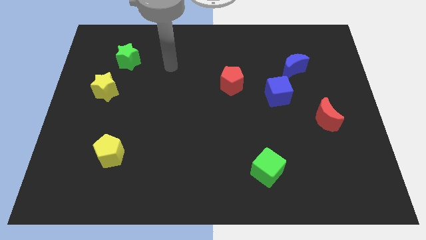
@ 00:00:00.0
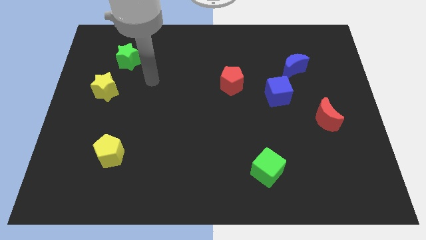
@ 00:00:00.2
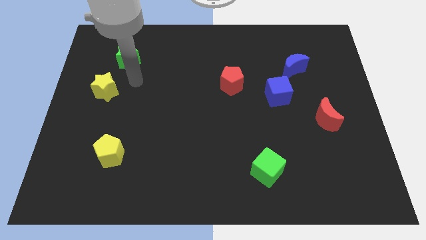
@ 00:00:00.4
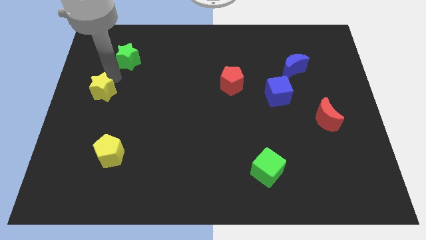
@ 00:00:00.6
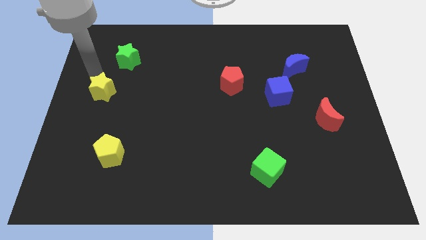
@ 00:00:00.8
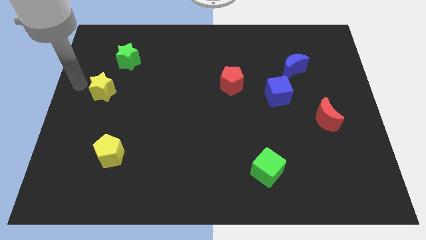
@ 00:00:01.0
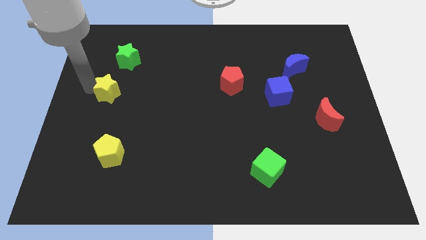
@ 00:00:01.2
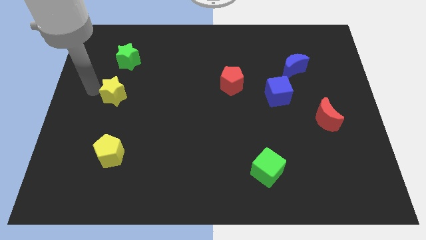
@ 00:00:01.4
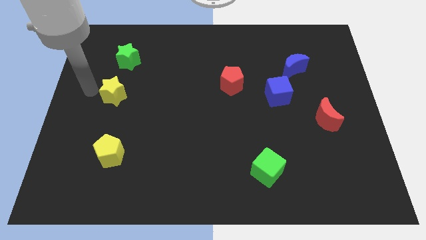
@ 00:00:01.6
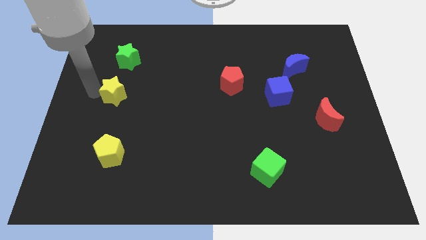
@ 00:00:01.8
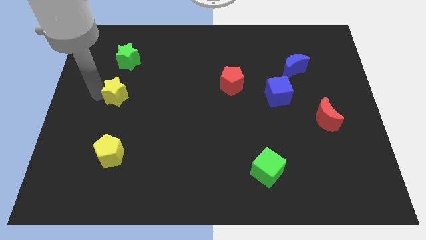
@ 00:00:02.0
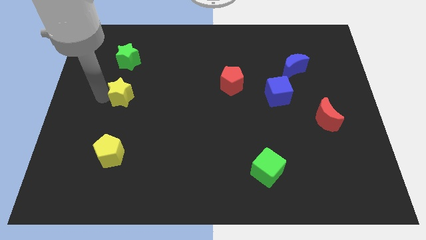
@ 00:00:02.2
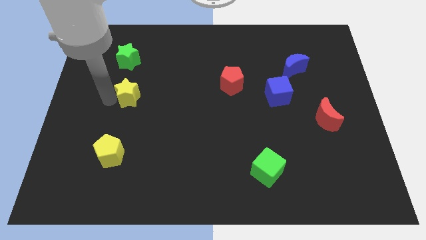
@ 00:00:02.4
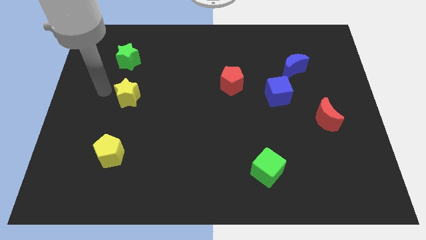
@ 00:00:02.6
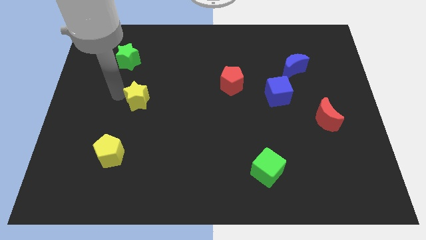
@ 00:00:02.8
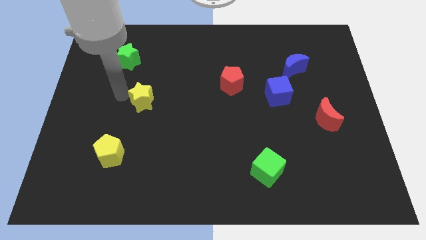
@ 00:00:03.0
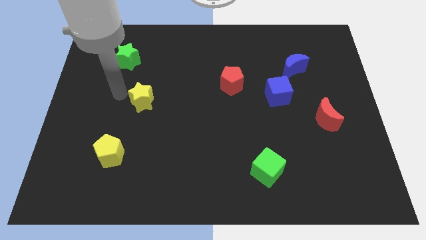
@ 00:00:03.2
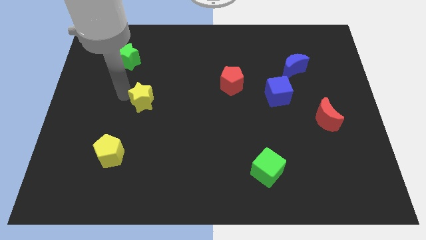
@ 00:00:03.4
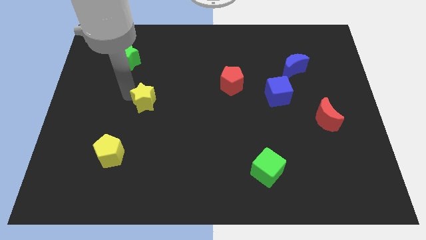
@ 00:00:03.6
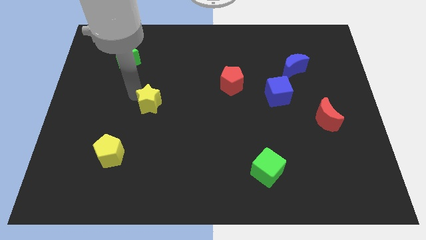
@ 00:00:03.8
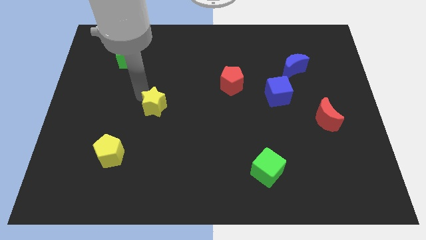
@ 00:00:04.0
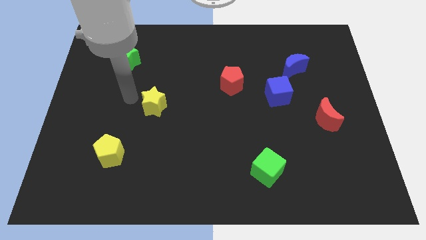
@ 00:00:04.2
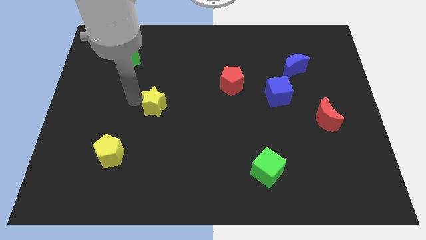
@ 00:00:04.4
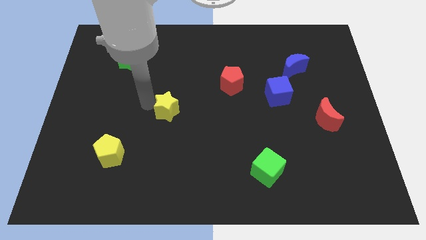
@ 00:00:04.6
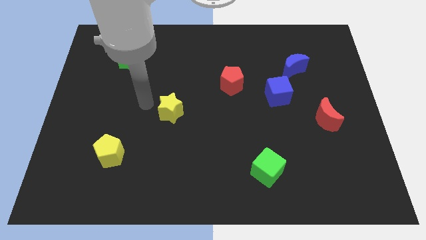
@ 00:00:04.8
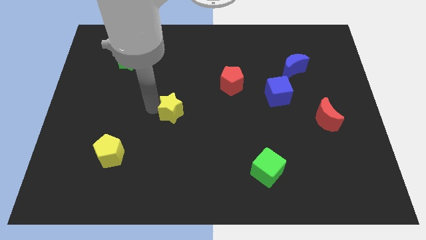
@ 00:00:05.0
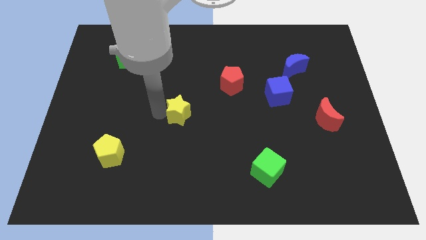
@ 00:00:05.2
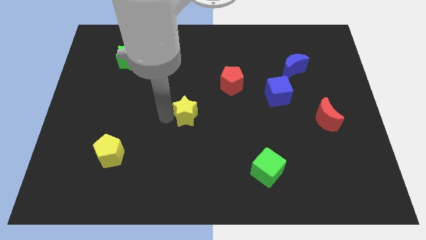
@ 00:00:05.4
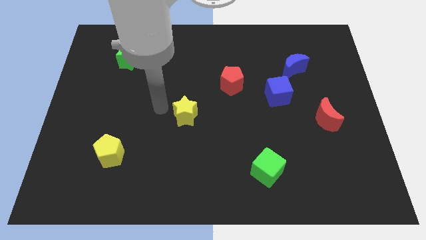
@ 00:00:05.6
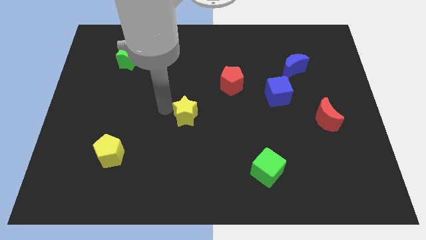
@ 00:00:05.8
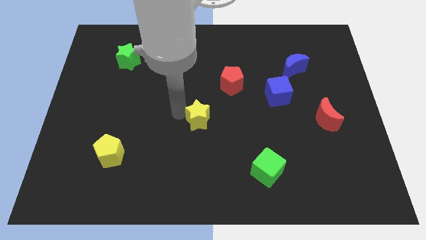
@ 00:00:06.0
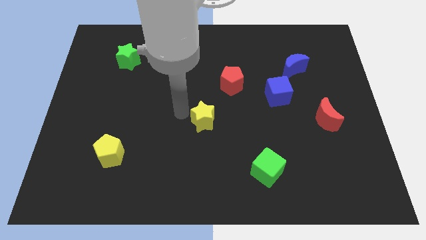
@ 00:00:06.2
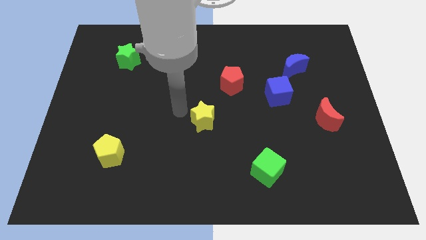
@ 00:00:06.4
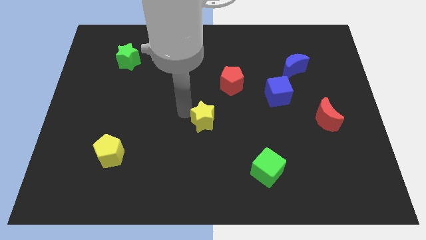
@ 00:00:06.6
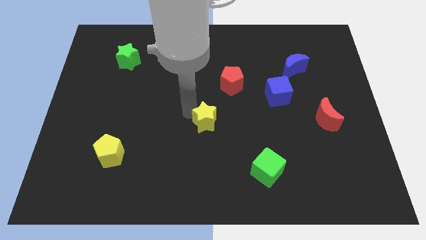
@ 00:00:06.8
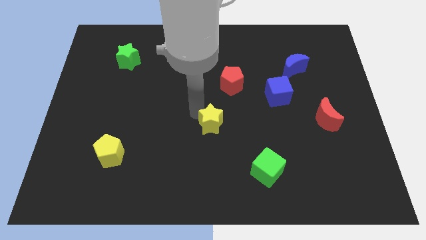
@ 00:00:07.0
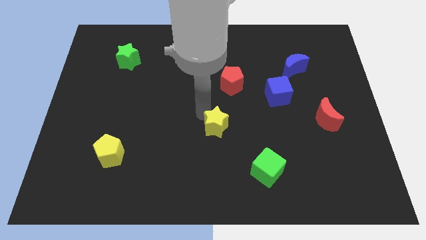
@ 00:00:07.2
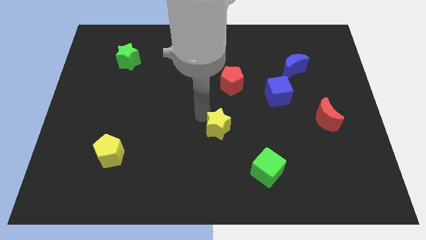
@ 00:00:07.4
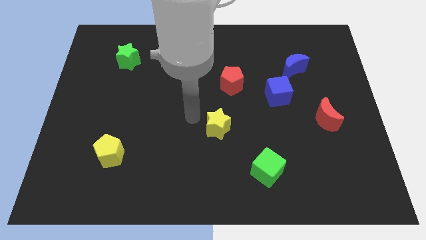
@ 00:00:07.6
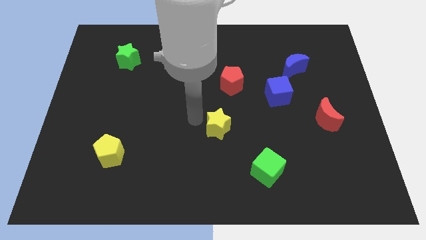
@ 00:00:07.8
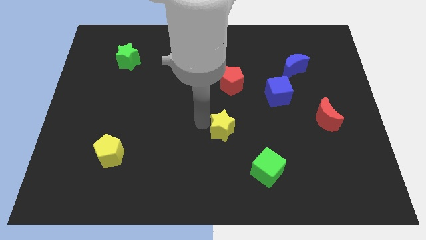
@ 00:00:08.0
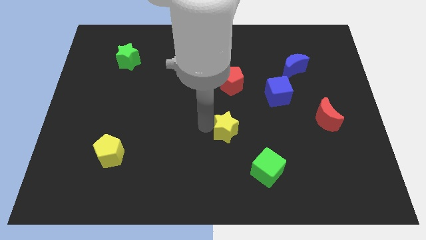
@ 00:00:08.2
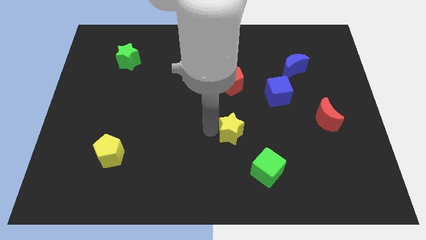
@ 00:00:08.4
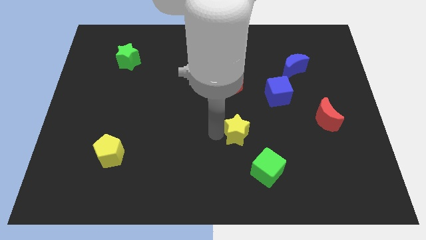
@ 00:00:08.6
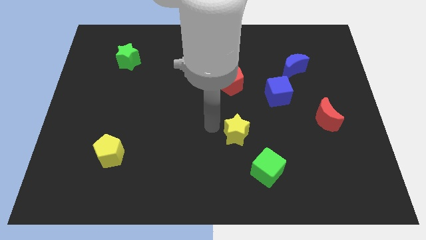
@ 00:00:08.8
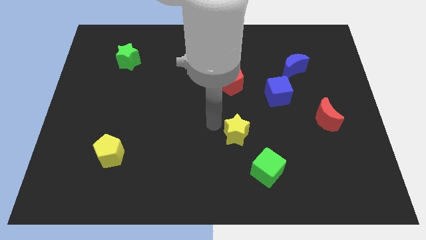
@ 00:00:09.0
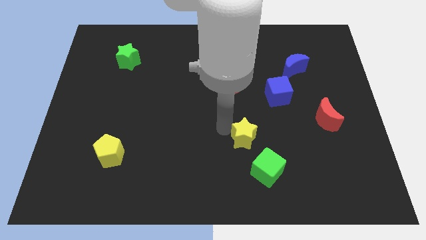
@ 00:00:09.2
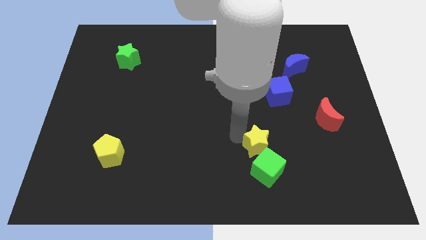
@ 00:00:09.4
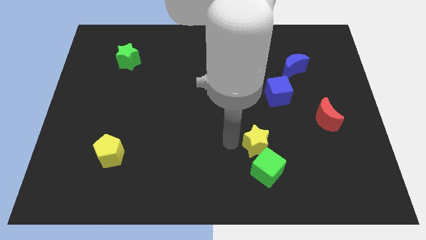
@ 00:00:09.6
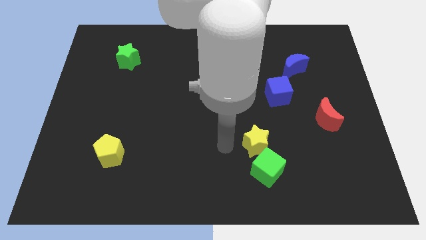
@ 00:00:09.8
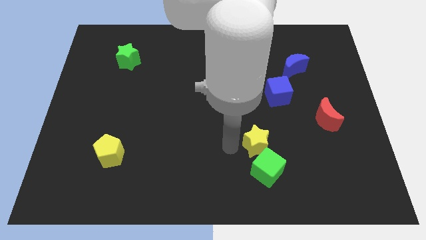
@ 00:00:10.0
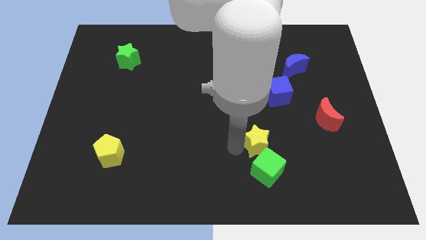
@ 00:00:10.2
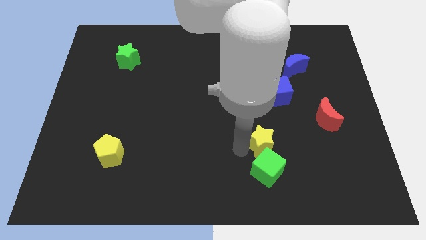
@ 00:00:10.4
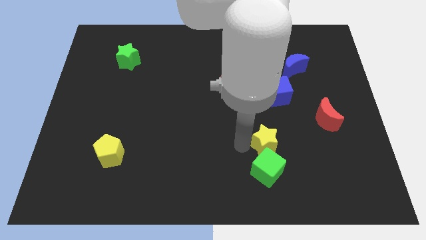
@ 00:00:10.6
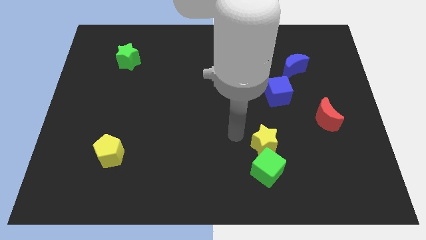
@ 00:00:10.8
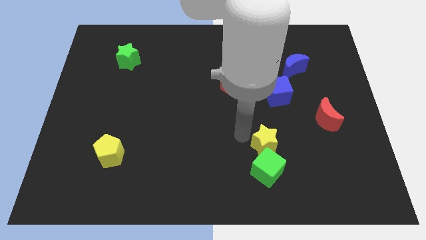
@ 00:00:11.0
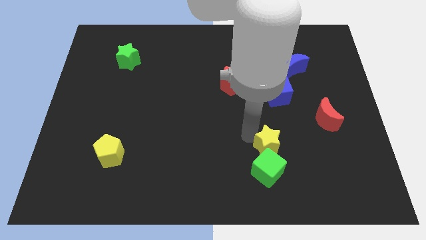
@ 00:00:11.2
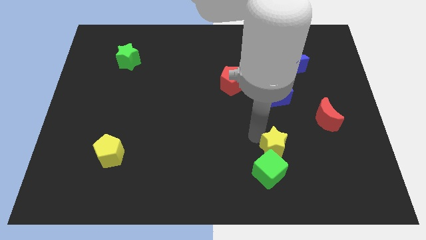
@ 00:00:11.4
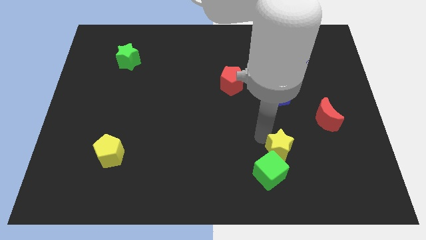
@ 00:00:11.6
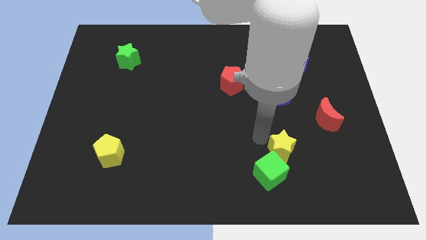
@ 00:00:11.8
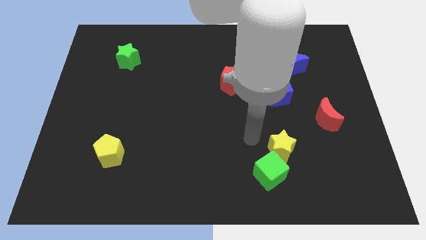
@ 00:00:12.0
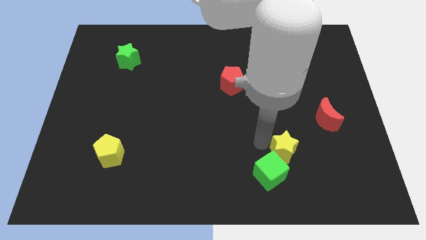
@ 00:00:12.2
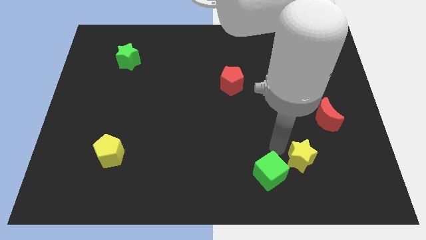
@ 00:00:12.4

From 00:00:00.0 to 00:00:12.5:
put the yellow star to the right side of the green cube
